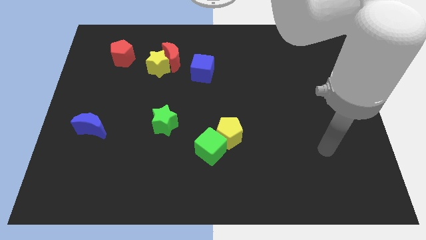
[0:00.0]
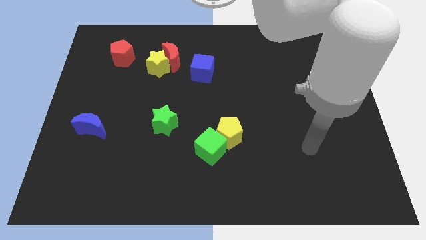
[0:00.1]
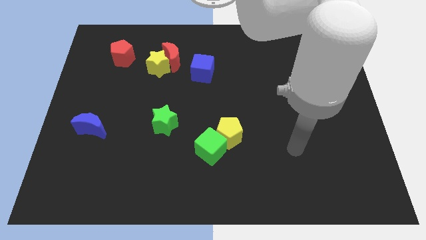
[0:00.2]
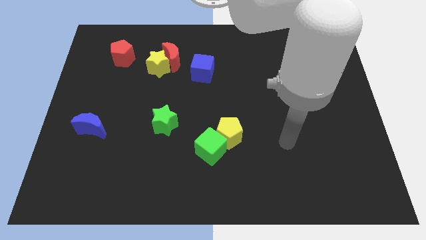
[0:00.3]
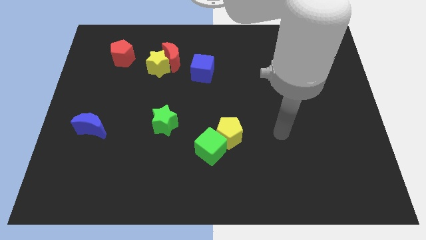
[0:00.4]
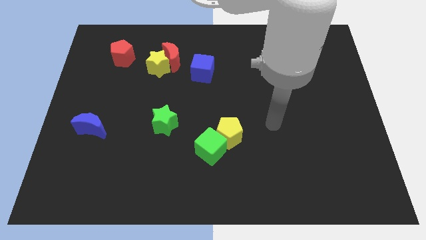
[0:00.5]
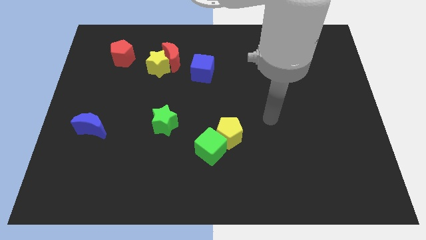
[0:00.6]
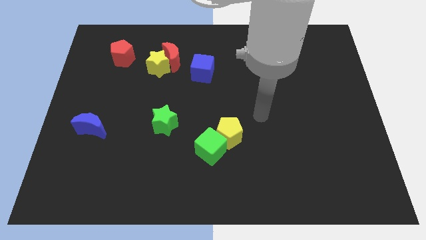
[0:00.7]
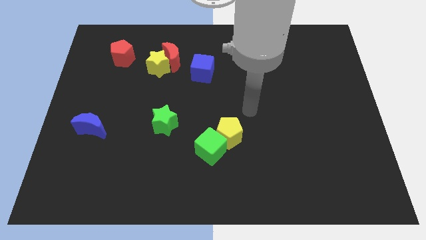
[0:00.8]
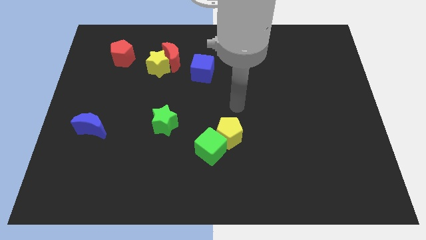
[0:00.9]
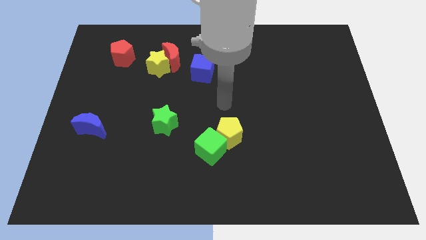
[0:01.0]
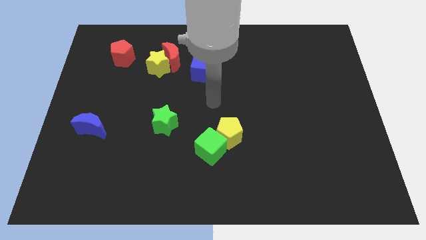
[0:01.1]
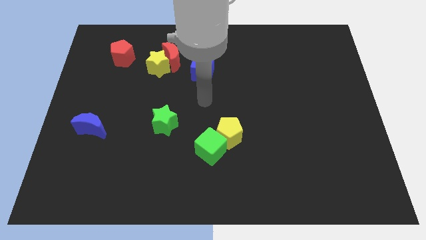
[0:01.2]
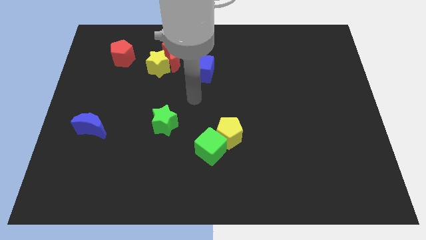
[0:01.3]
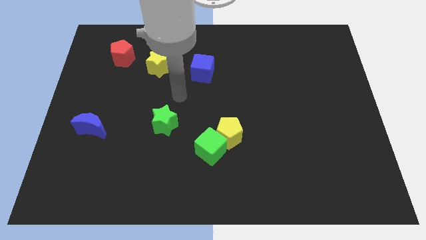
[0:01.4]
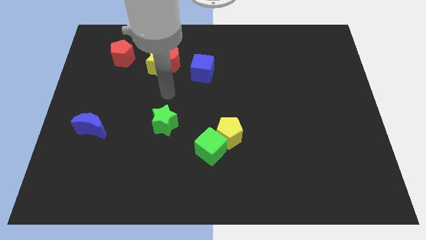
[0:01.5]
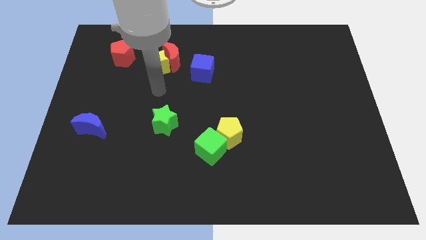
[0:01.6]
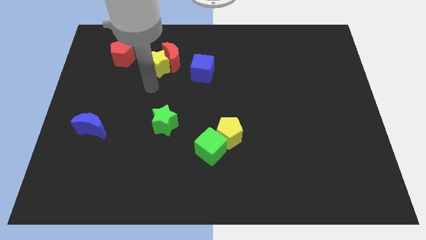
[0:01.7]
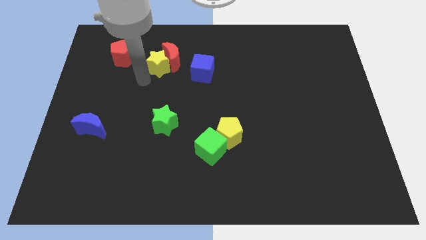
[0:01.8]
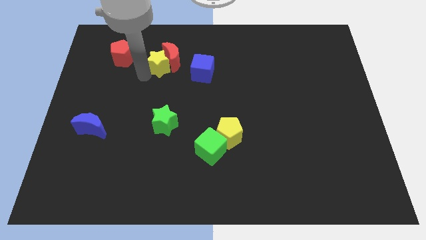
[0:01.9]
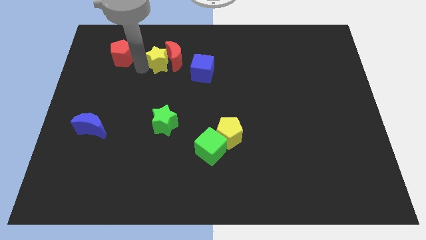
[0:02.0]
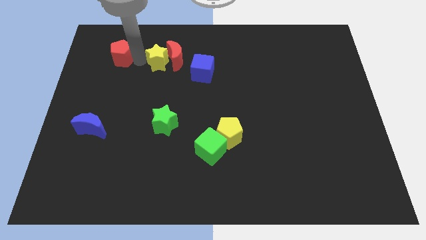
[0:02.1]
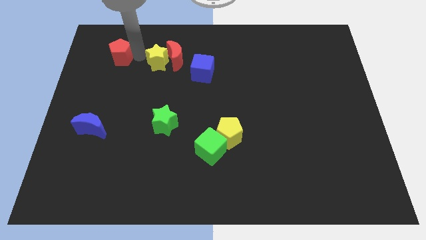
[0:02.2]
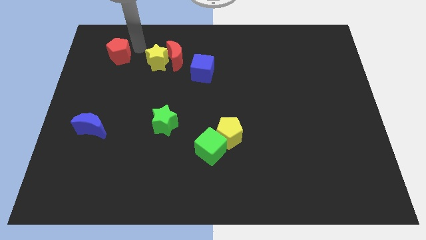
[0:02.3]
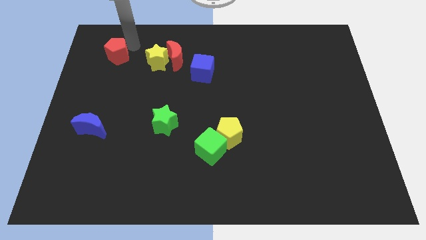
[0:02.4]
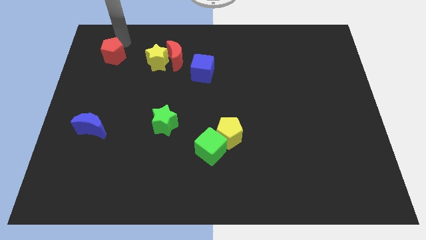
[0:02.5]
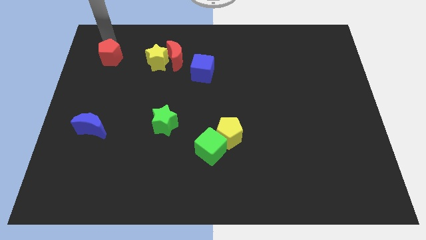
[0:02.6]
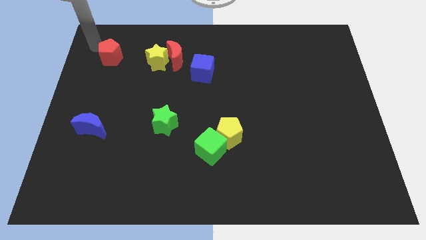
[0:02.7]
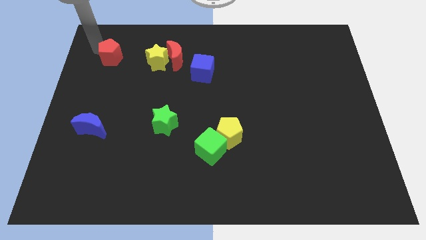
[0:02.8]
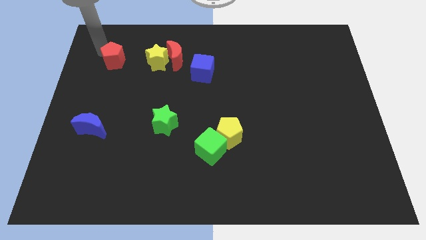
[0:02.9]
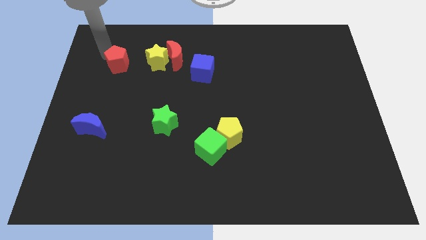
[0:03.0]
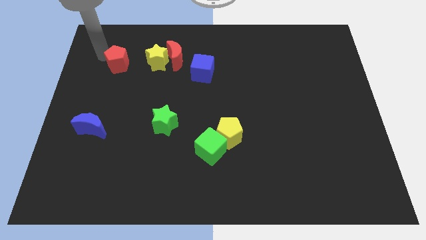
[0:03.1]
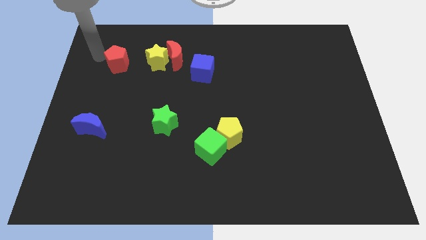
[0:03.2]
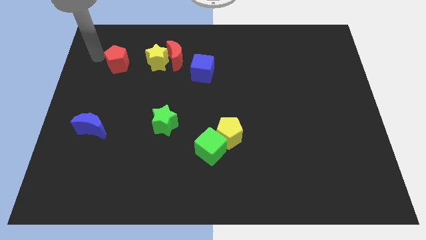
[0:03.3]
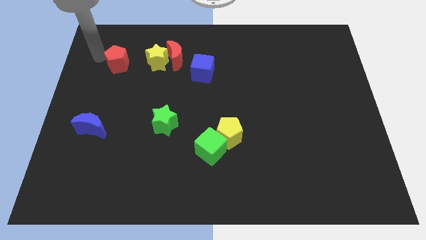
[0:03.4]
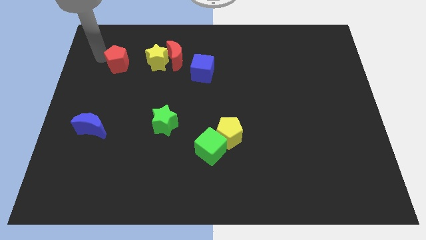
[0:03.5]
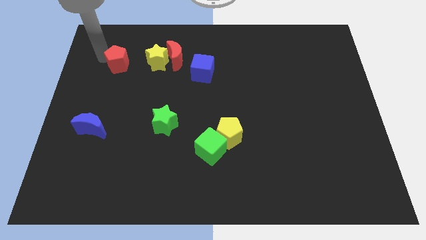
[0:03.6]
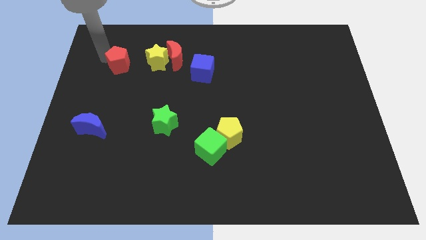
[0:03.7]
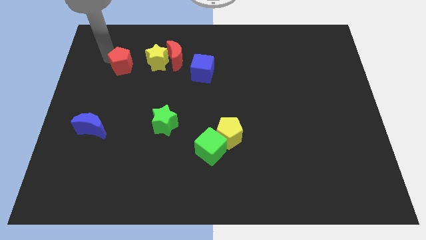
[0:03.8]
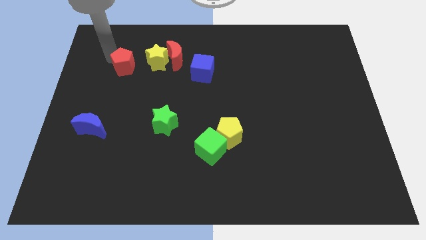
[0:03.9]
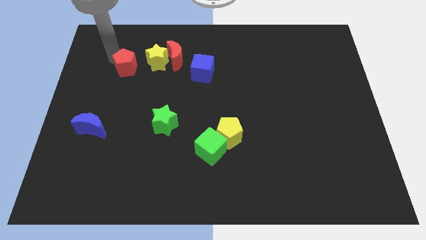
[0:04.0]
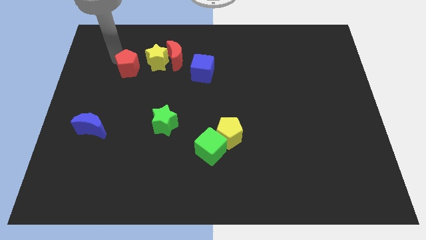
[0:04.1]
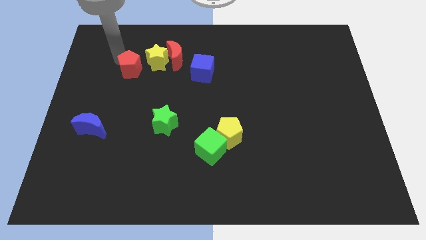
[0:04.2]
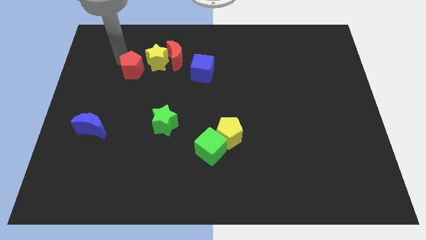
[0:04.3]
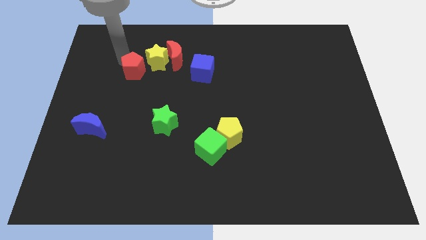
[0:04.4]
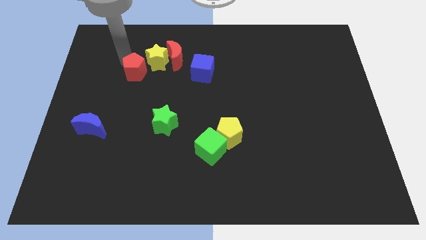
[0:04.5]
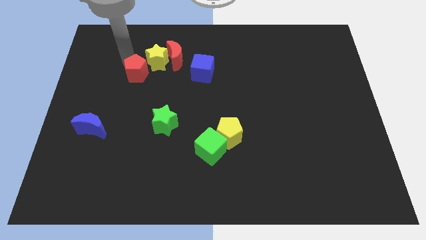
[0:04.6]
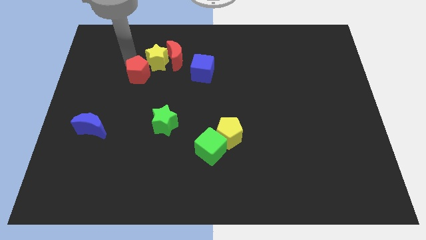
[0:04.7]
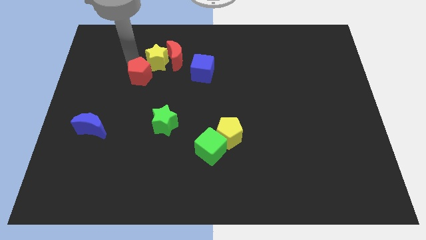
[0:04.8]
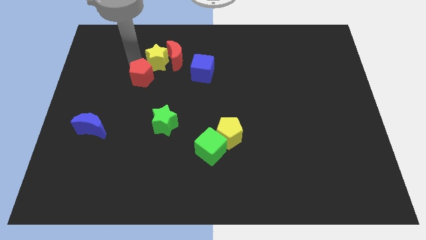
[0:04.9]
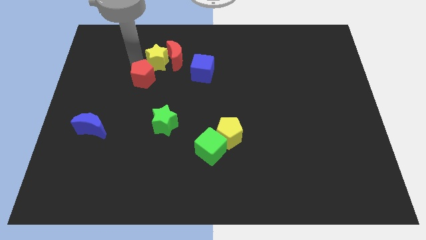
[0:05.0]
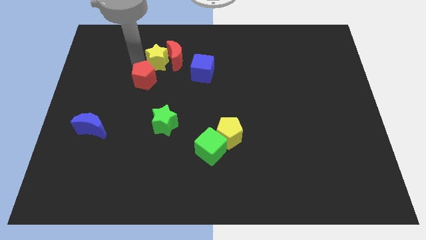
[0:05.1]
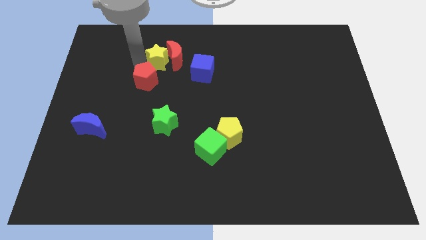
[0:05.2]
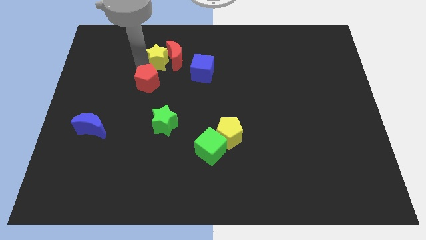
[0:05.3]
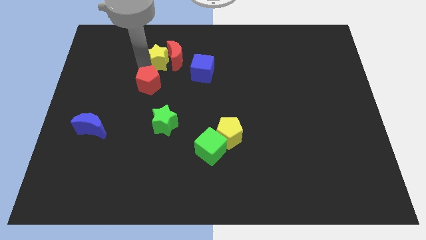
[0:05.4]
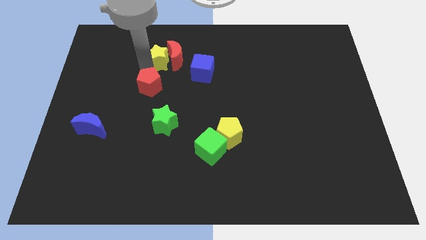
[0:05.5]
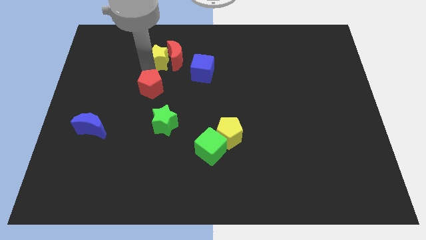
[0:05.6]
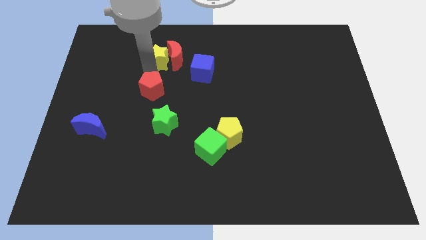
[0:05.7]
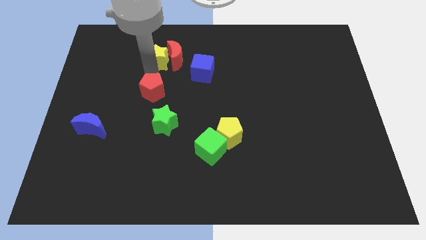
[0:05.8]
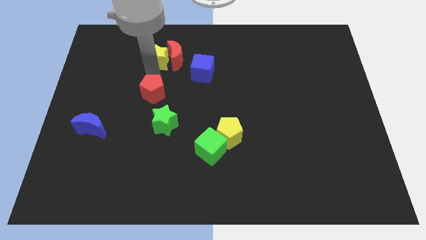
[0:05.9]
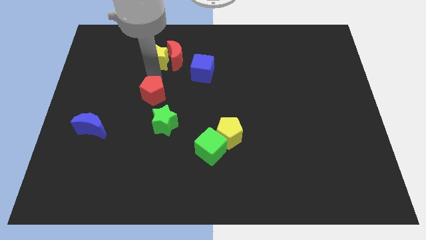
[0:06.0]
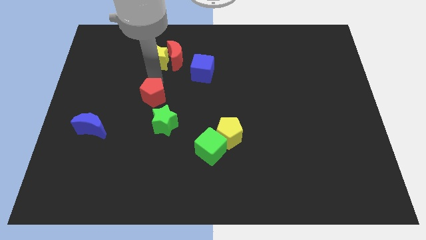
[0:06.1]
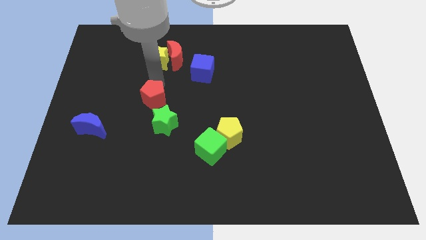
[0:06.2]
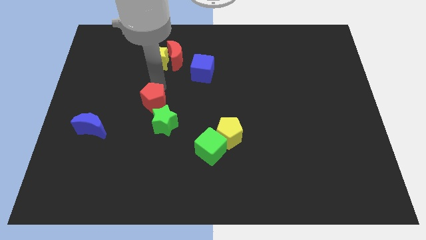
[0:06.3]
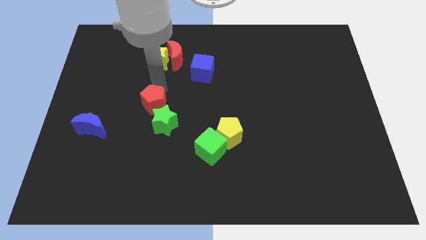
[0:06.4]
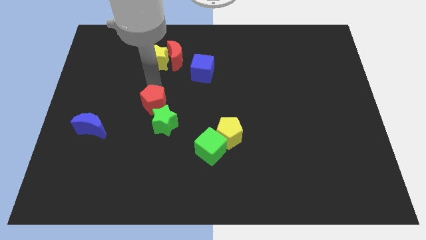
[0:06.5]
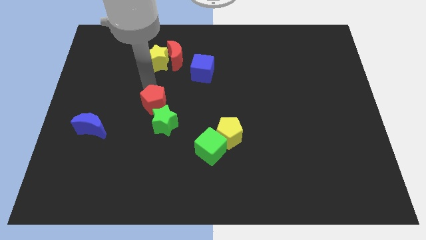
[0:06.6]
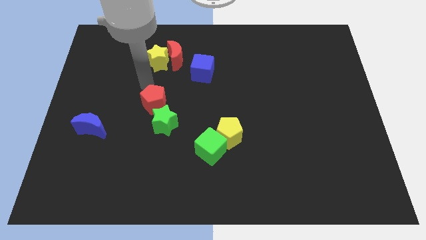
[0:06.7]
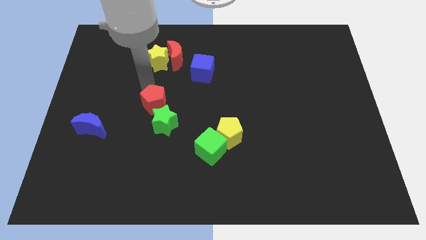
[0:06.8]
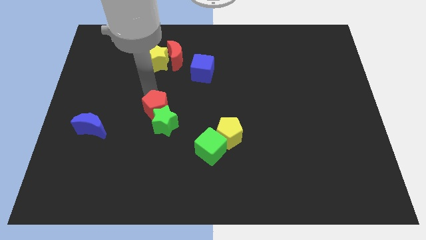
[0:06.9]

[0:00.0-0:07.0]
slide the red pentagon close to the green star

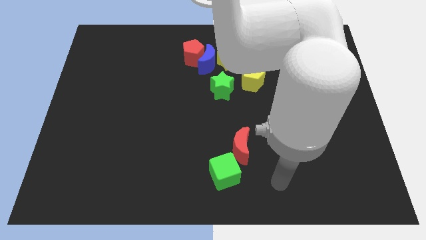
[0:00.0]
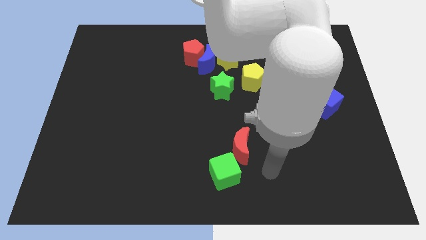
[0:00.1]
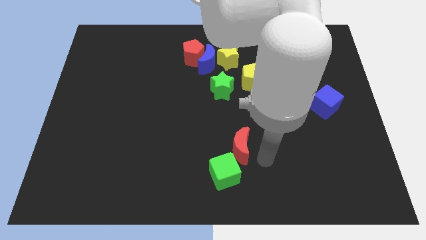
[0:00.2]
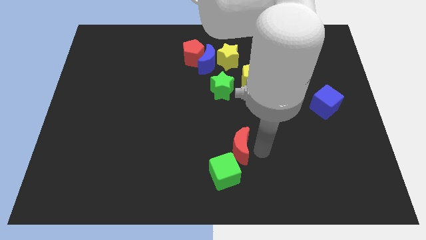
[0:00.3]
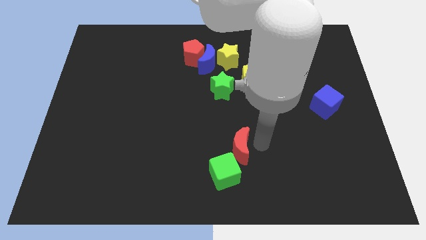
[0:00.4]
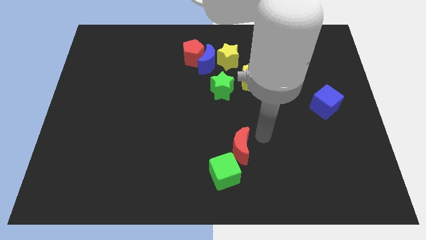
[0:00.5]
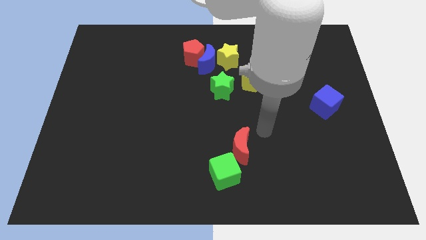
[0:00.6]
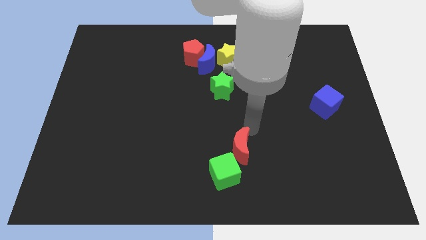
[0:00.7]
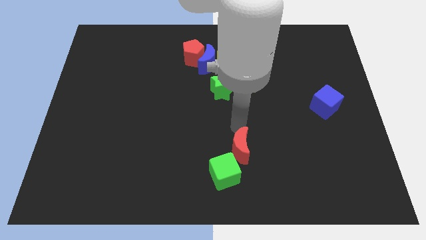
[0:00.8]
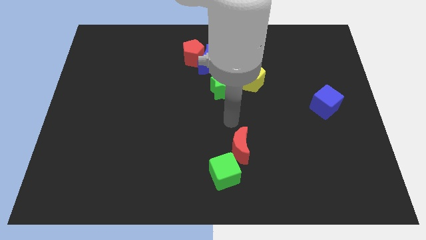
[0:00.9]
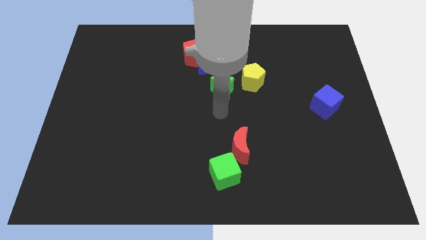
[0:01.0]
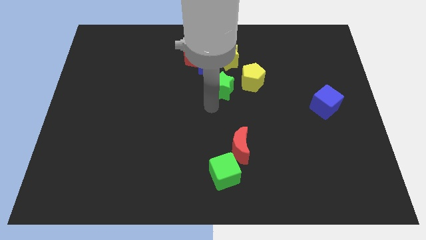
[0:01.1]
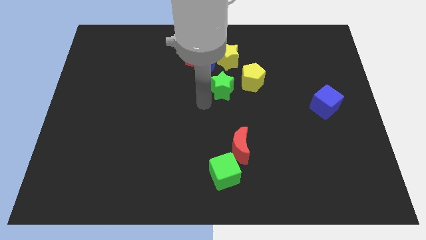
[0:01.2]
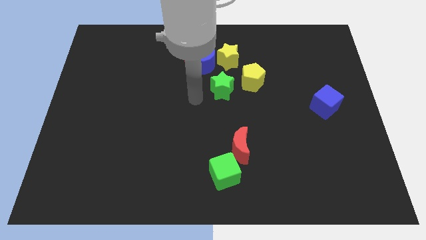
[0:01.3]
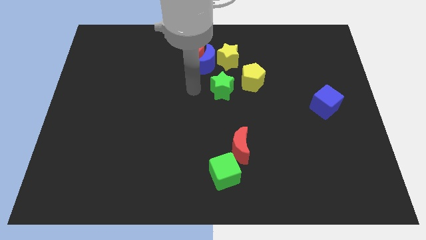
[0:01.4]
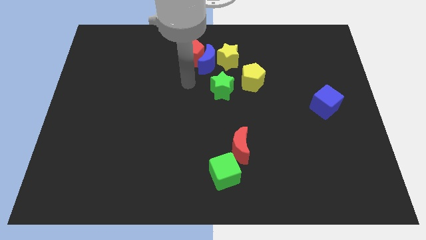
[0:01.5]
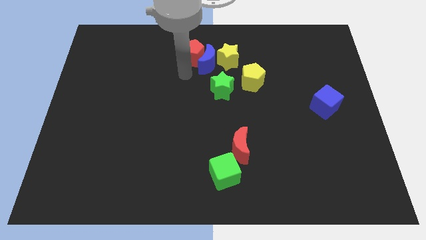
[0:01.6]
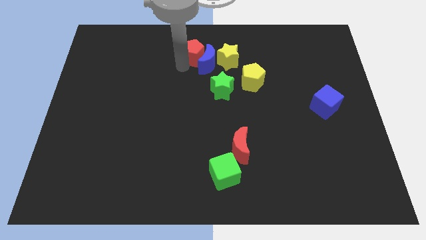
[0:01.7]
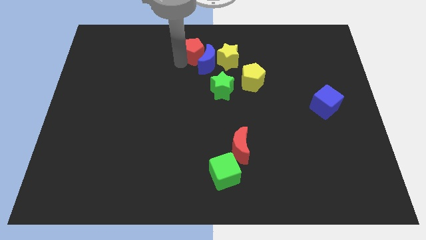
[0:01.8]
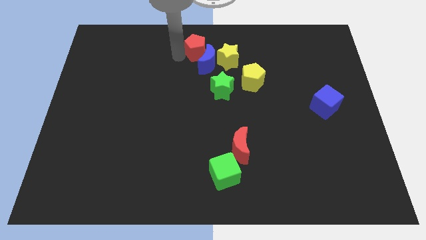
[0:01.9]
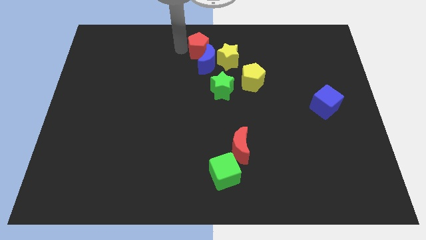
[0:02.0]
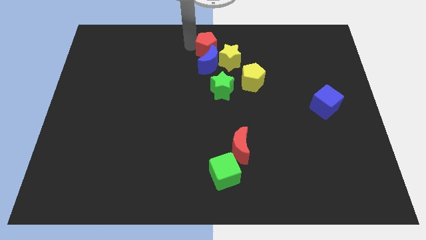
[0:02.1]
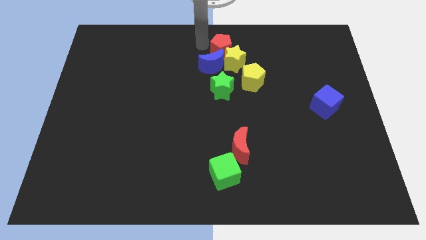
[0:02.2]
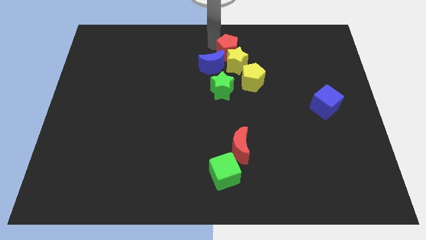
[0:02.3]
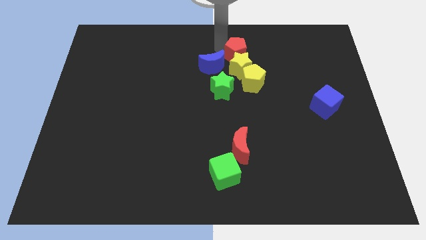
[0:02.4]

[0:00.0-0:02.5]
slide the yellow star to the yellow pentagon
